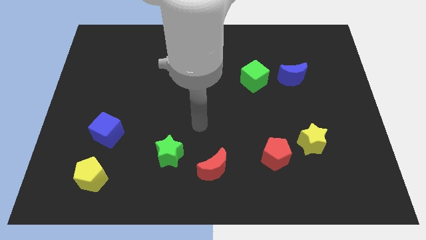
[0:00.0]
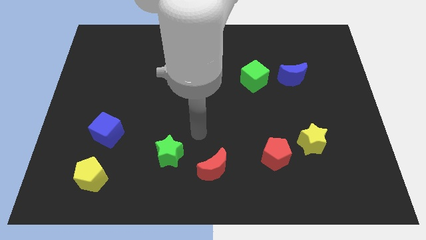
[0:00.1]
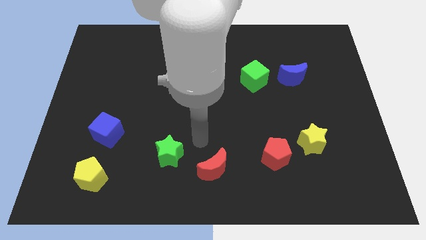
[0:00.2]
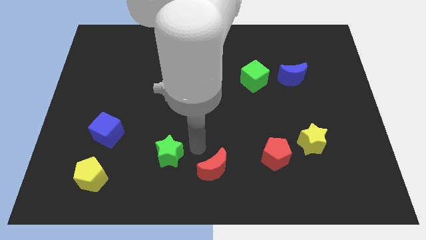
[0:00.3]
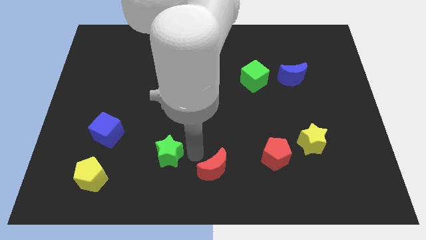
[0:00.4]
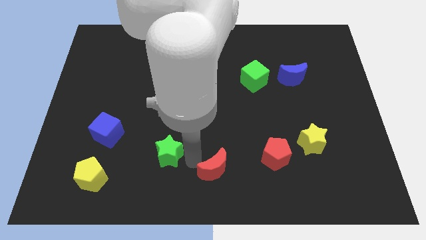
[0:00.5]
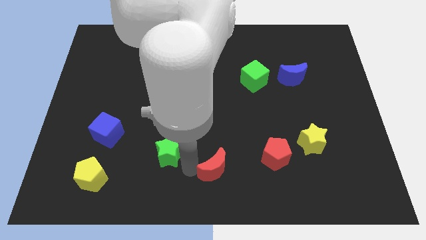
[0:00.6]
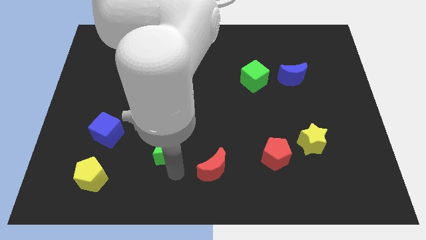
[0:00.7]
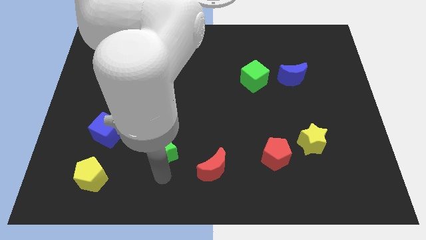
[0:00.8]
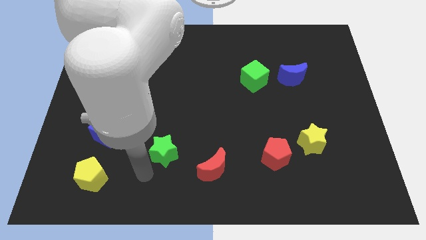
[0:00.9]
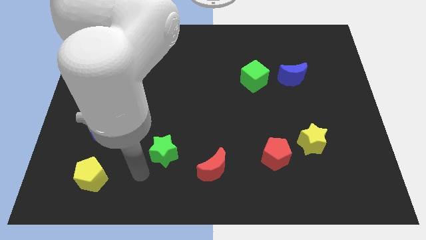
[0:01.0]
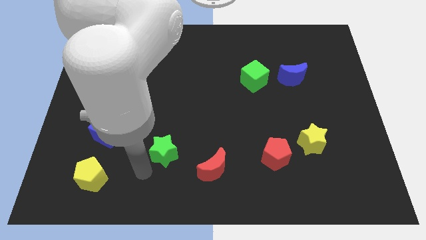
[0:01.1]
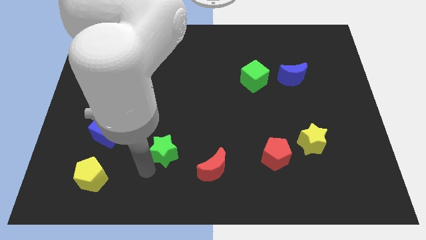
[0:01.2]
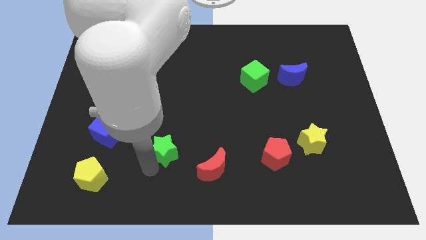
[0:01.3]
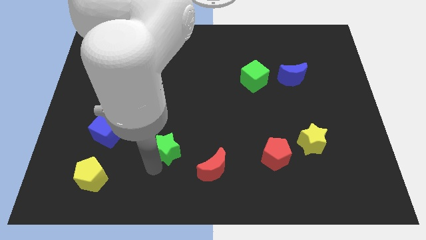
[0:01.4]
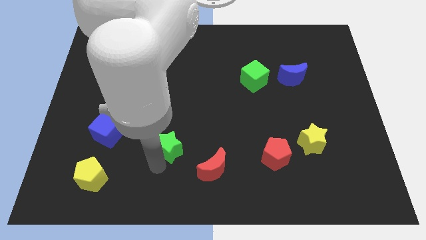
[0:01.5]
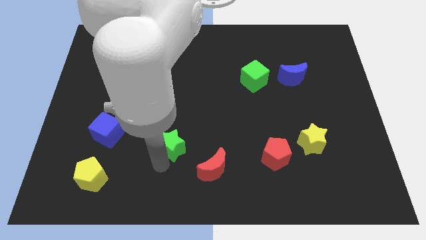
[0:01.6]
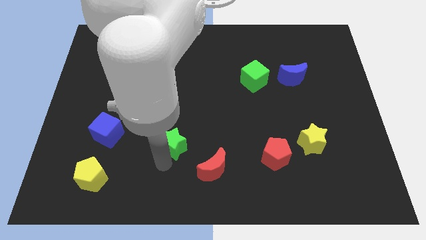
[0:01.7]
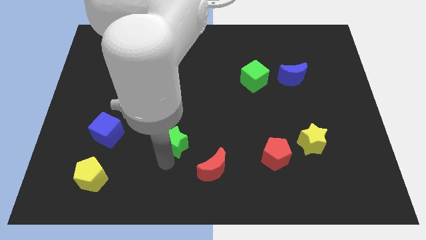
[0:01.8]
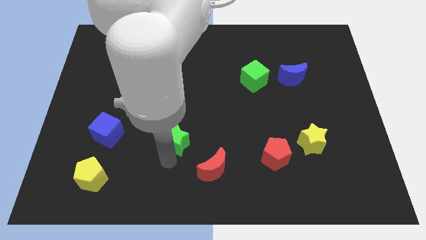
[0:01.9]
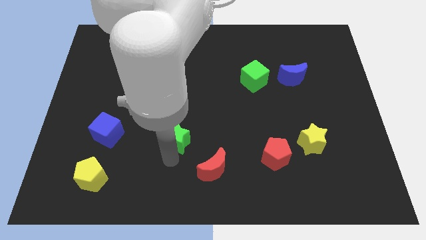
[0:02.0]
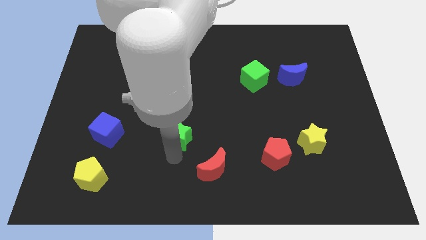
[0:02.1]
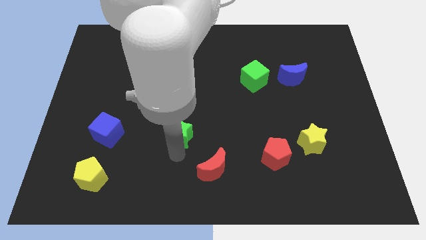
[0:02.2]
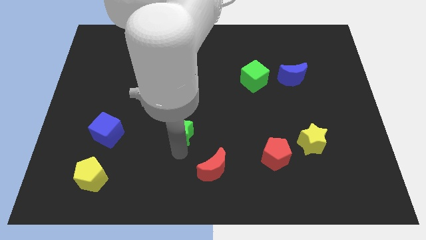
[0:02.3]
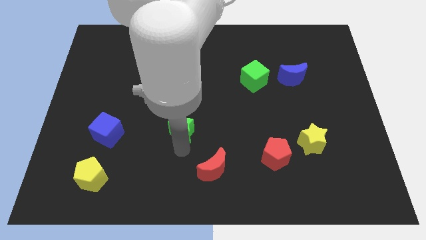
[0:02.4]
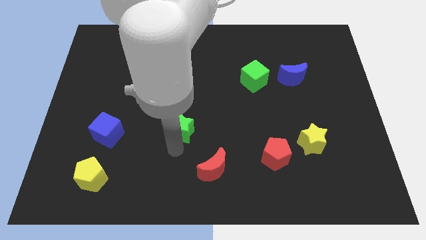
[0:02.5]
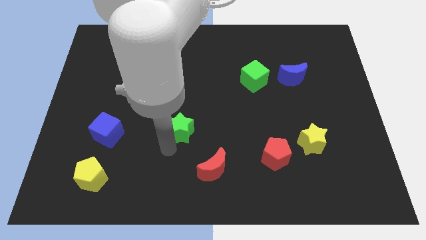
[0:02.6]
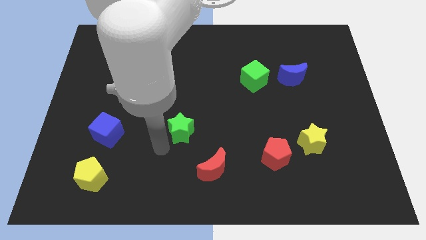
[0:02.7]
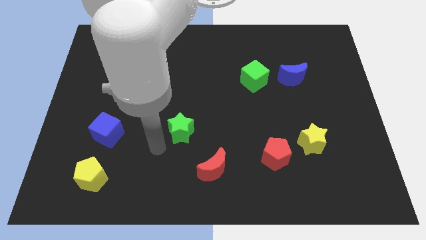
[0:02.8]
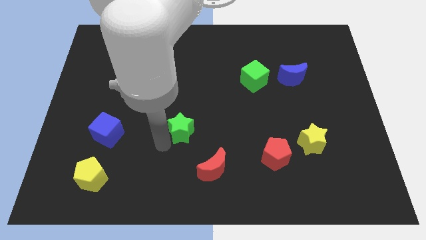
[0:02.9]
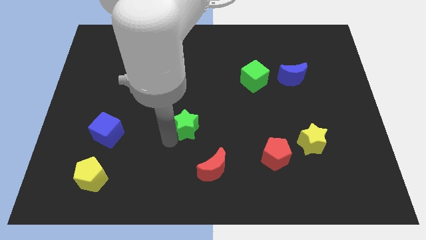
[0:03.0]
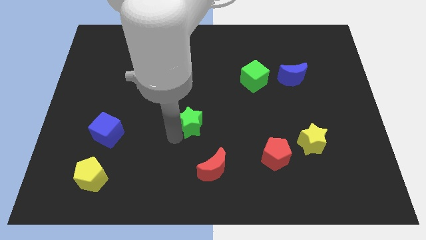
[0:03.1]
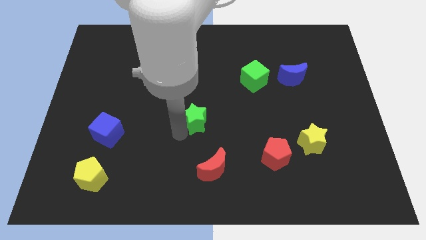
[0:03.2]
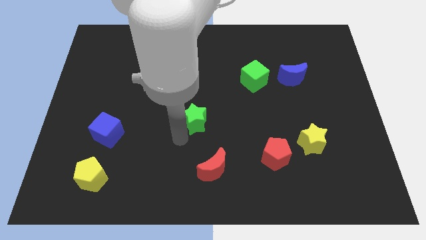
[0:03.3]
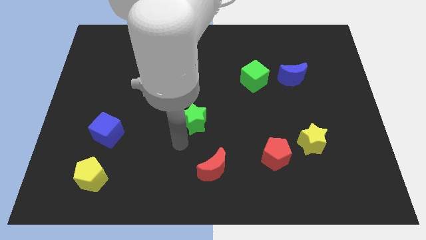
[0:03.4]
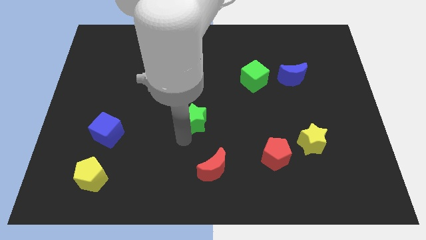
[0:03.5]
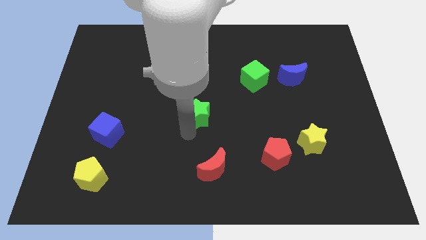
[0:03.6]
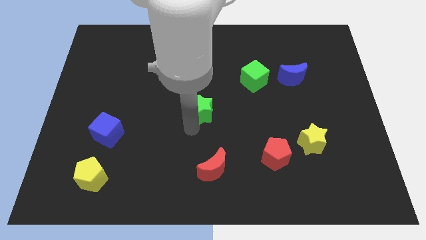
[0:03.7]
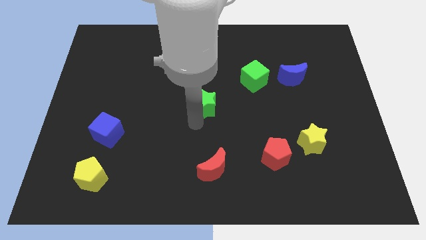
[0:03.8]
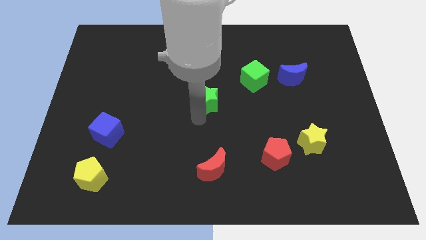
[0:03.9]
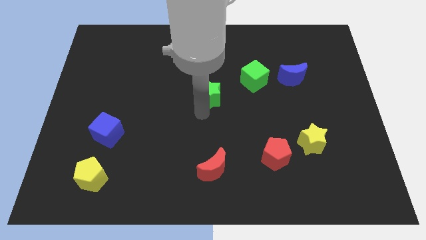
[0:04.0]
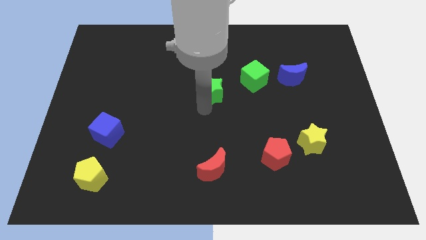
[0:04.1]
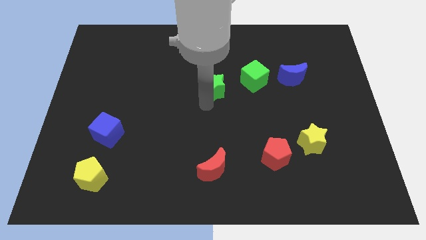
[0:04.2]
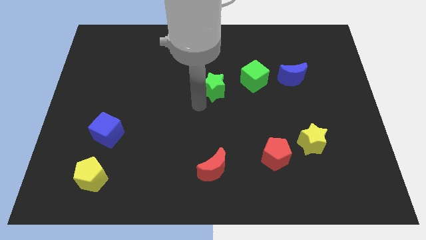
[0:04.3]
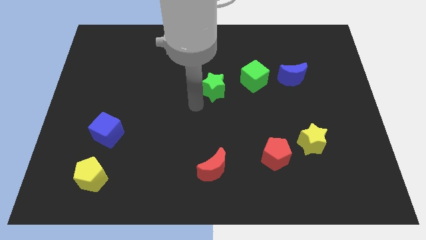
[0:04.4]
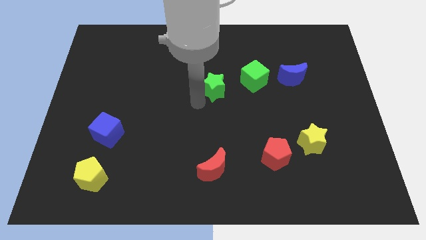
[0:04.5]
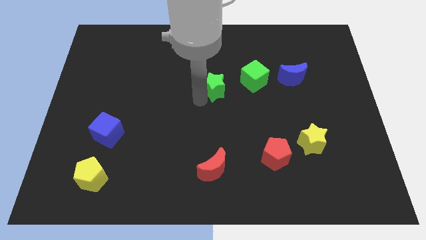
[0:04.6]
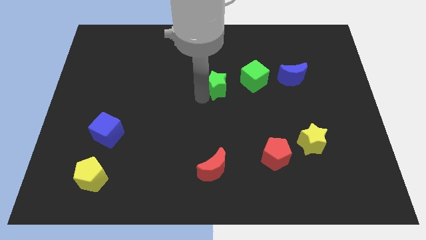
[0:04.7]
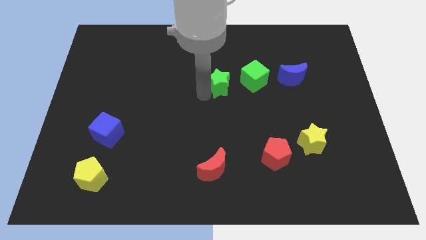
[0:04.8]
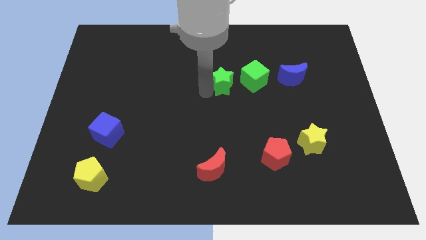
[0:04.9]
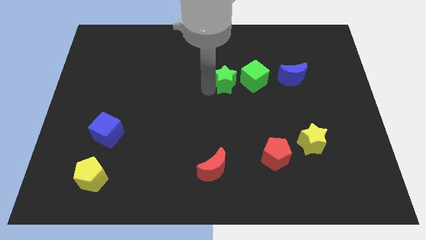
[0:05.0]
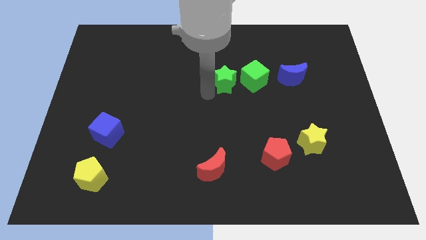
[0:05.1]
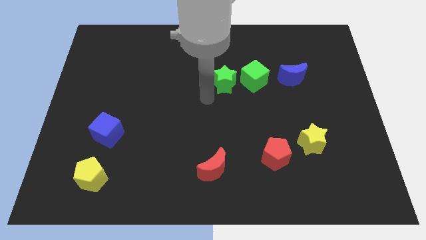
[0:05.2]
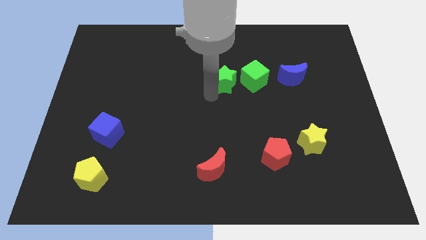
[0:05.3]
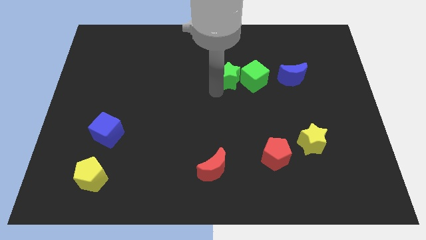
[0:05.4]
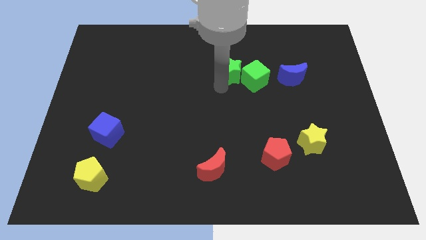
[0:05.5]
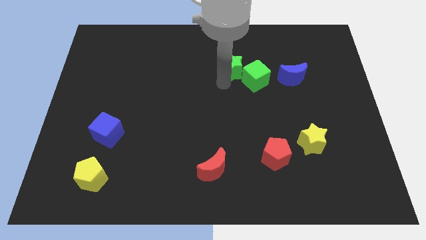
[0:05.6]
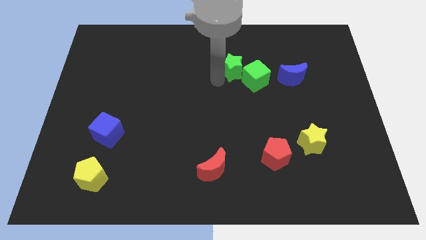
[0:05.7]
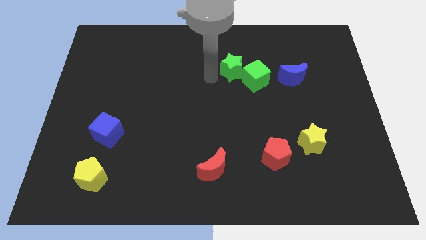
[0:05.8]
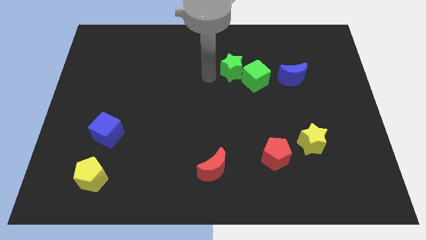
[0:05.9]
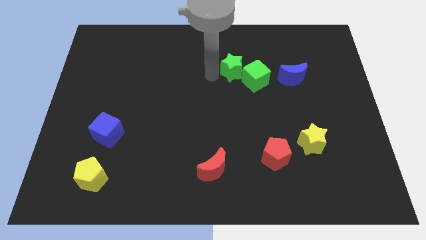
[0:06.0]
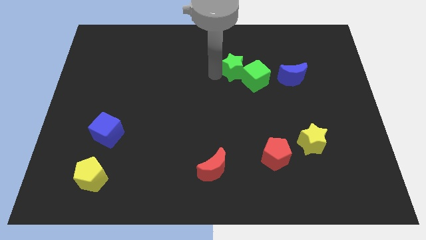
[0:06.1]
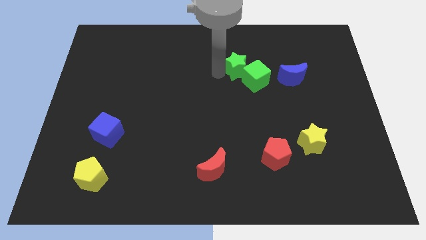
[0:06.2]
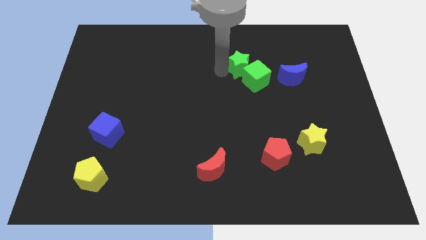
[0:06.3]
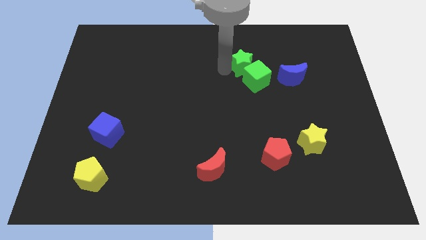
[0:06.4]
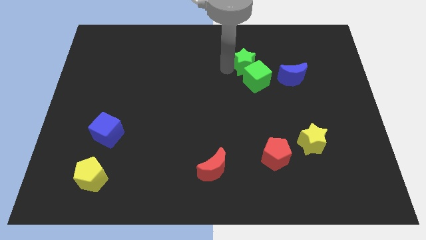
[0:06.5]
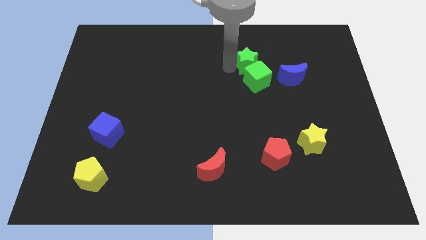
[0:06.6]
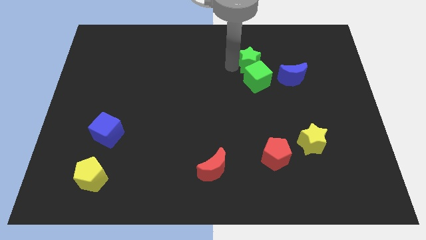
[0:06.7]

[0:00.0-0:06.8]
move the green star to the top left side of the blue moon

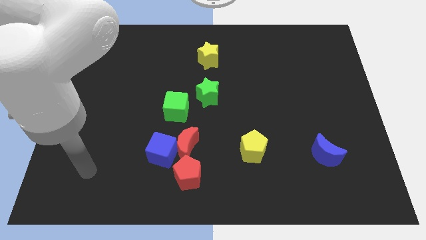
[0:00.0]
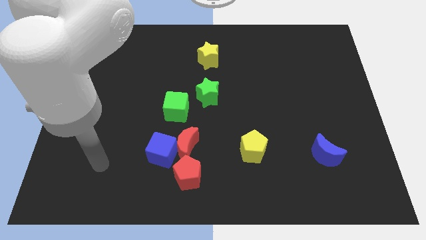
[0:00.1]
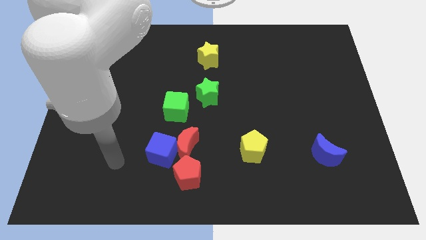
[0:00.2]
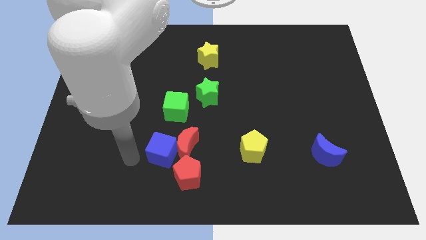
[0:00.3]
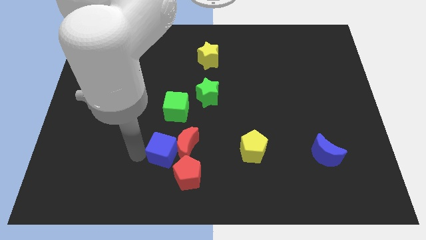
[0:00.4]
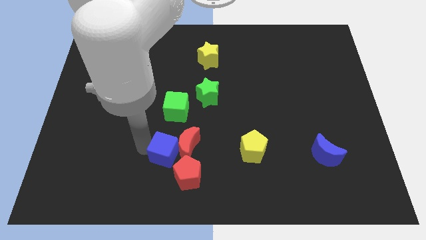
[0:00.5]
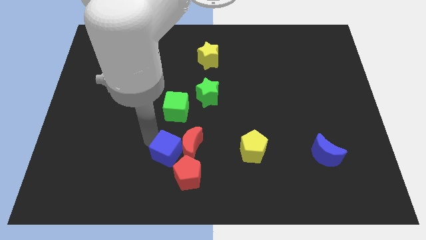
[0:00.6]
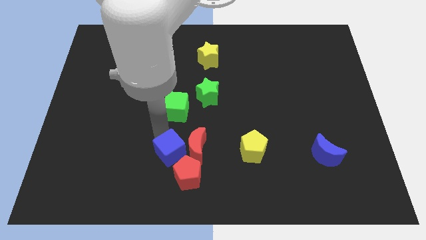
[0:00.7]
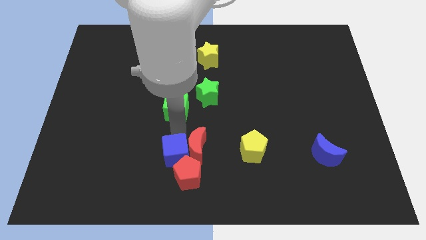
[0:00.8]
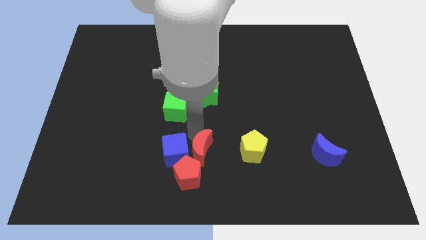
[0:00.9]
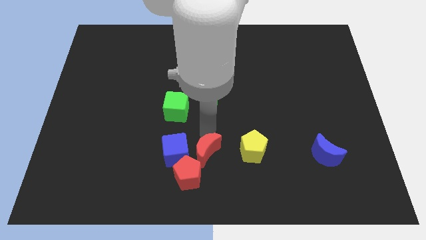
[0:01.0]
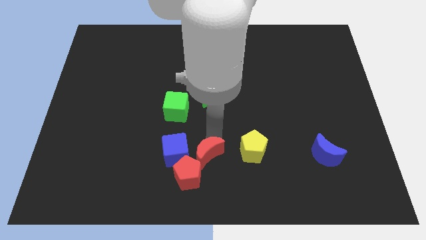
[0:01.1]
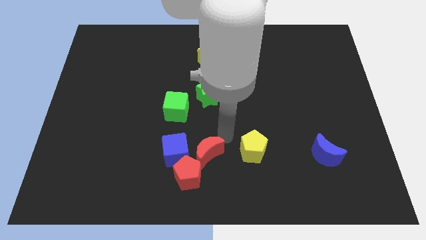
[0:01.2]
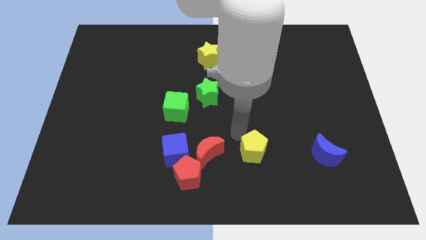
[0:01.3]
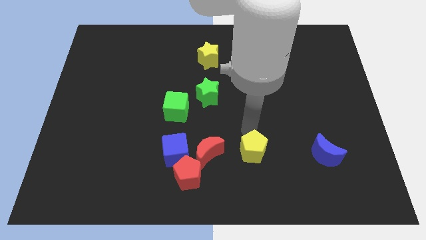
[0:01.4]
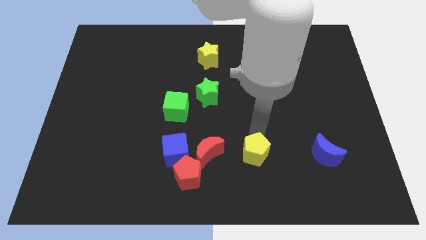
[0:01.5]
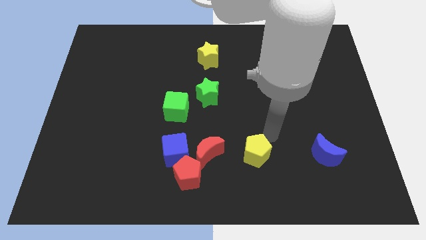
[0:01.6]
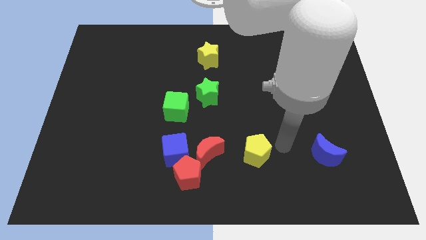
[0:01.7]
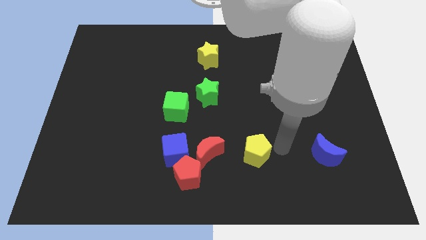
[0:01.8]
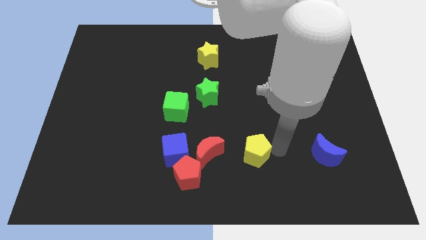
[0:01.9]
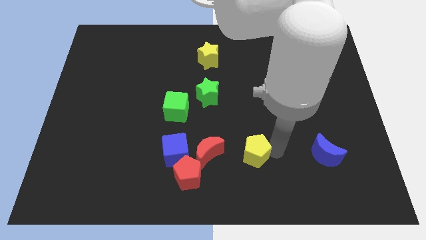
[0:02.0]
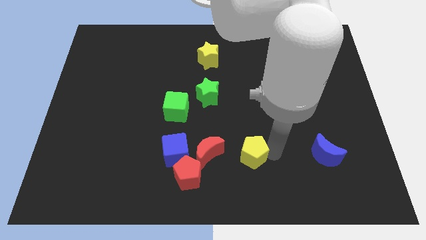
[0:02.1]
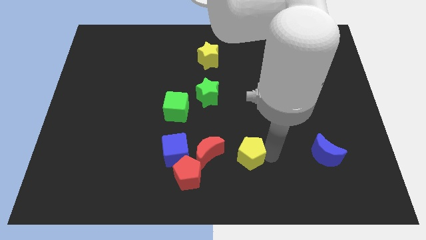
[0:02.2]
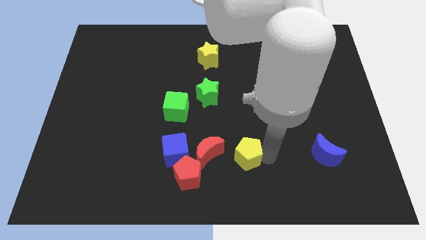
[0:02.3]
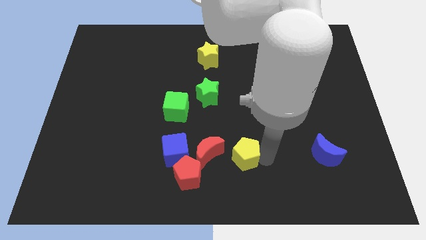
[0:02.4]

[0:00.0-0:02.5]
push the yellow pentagon diagonally down and to the right of the red moon
